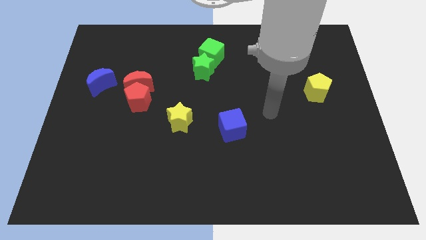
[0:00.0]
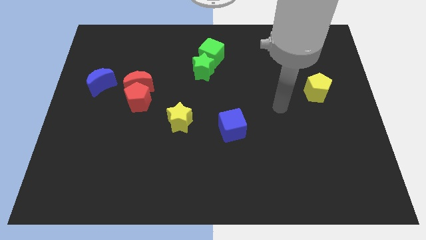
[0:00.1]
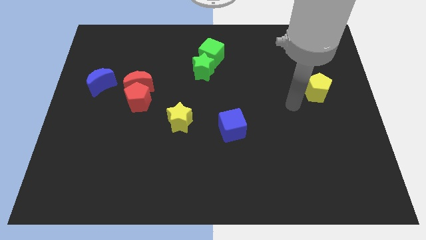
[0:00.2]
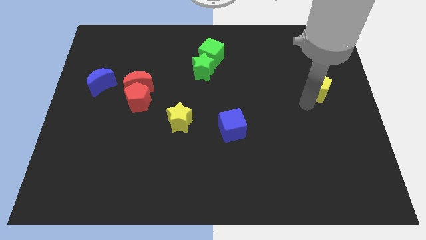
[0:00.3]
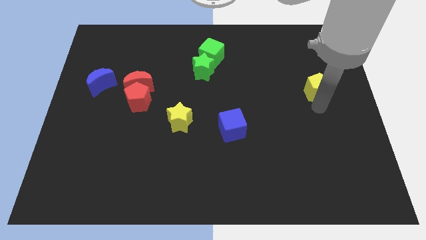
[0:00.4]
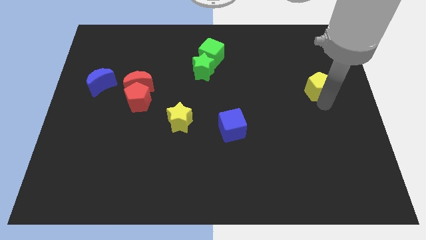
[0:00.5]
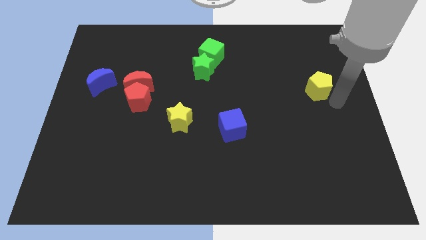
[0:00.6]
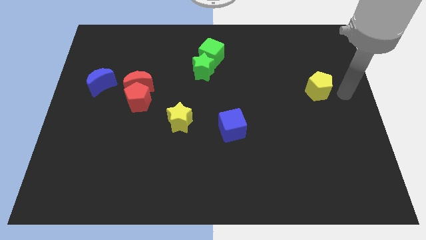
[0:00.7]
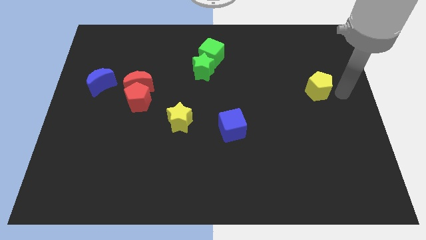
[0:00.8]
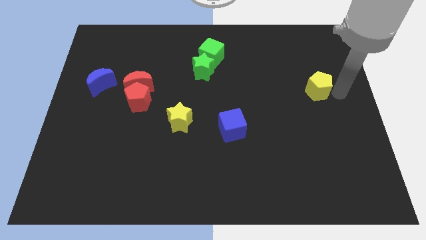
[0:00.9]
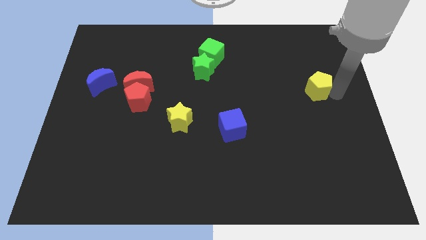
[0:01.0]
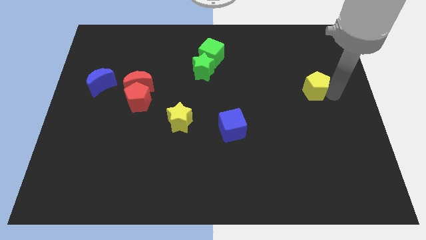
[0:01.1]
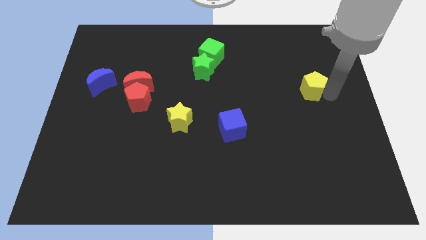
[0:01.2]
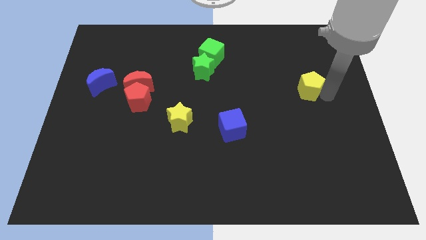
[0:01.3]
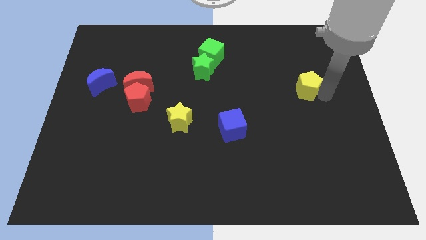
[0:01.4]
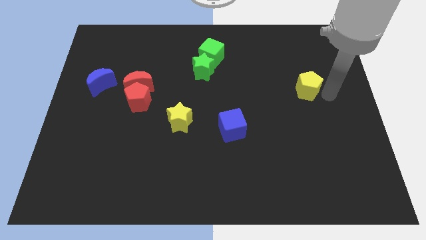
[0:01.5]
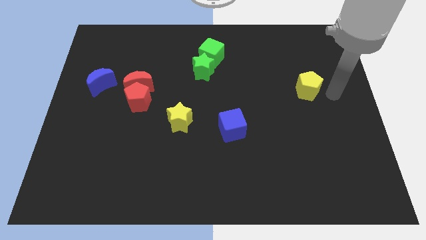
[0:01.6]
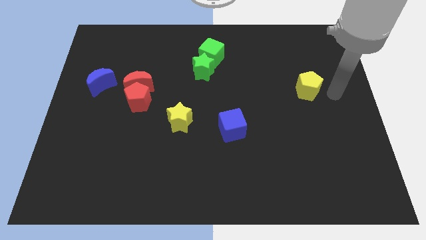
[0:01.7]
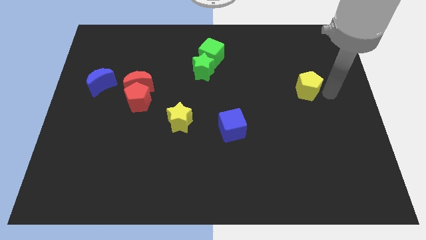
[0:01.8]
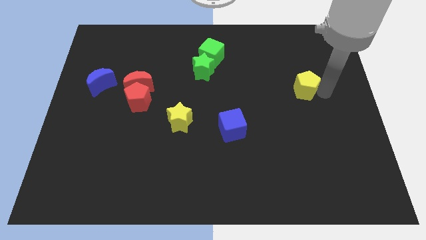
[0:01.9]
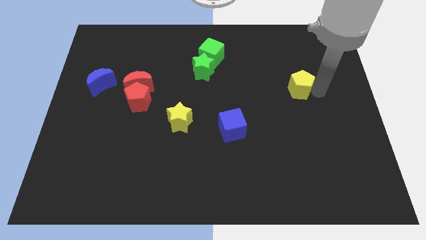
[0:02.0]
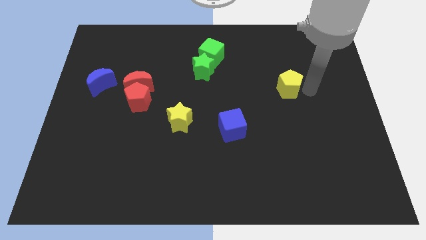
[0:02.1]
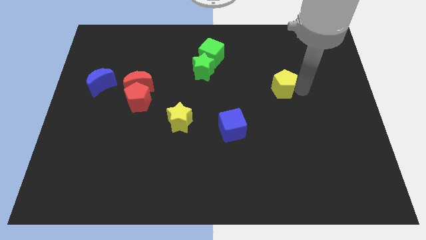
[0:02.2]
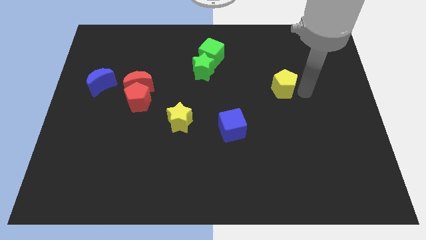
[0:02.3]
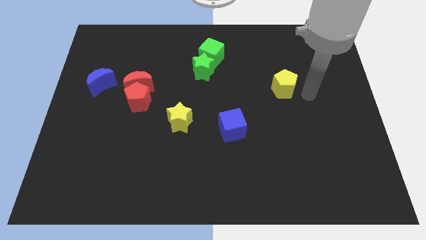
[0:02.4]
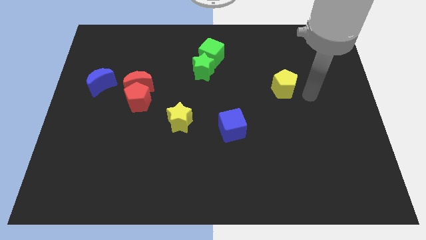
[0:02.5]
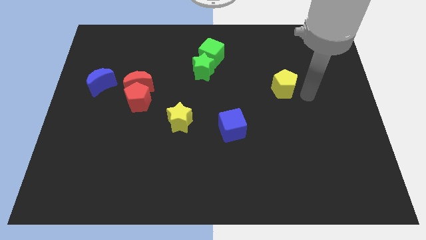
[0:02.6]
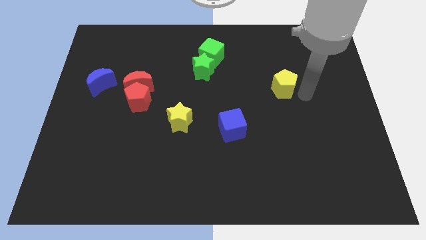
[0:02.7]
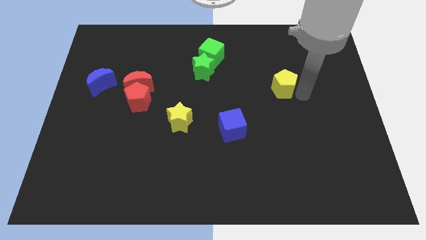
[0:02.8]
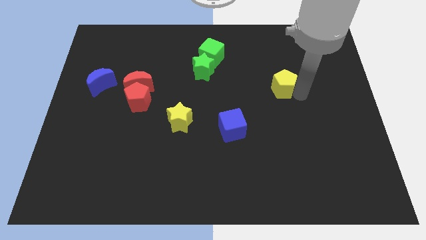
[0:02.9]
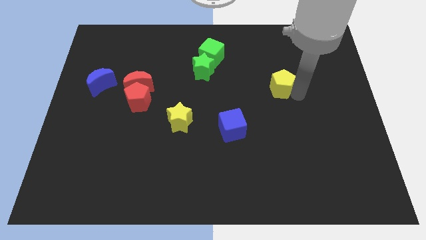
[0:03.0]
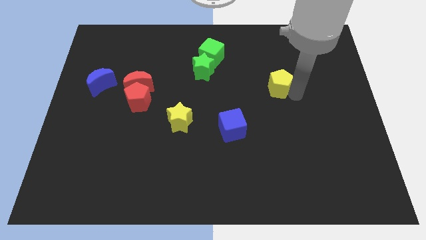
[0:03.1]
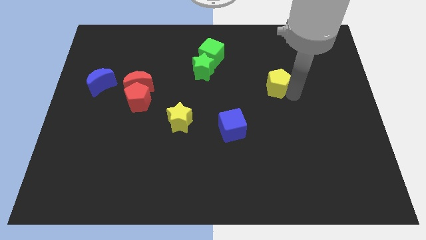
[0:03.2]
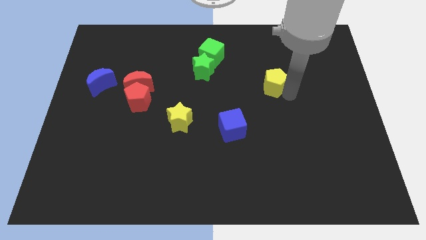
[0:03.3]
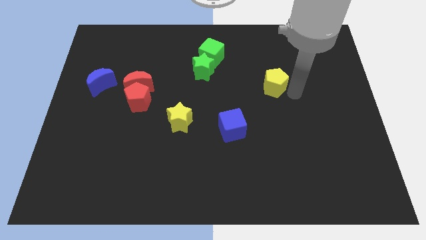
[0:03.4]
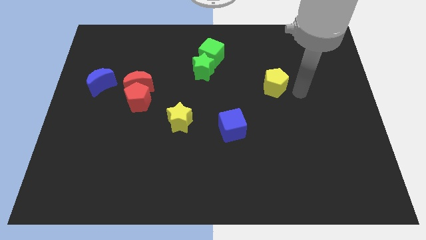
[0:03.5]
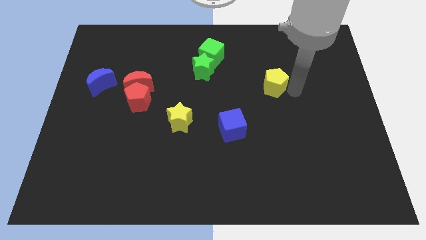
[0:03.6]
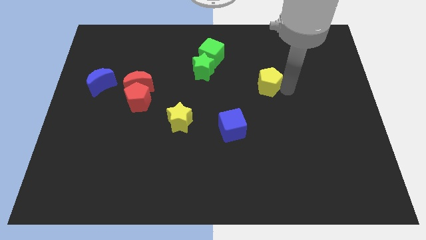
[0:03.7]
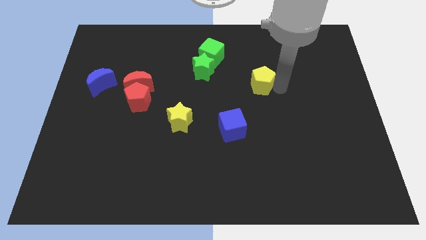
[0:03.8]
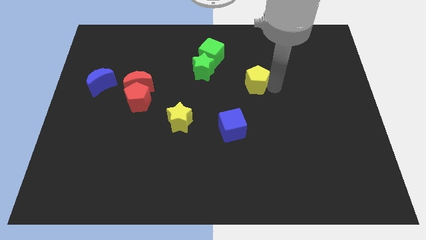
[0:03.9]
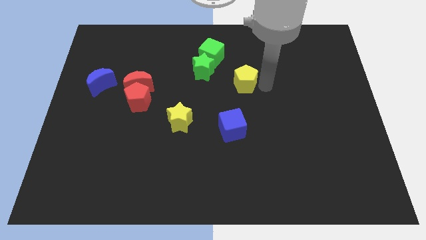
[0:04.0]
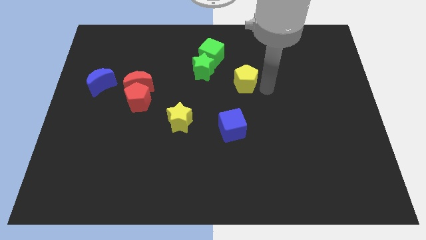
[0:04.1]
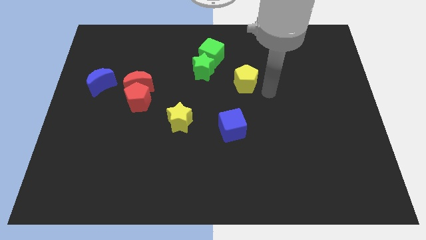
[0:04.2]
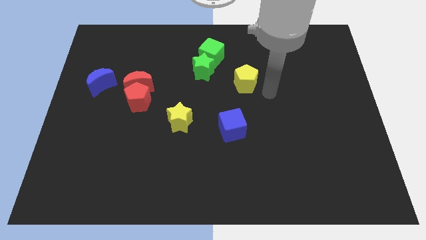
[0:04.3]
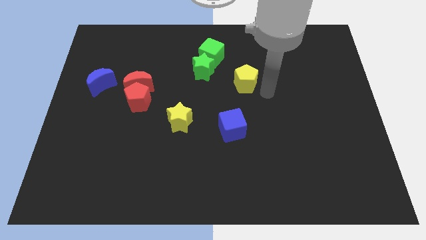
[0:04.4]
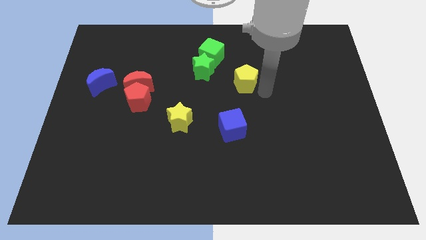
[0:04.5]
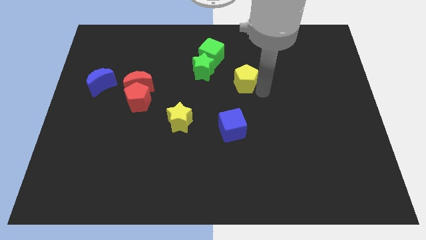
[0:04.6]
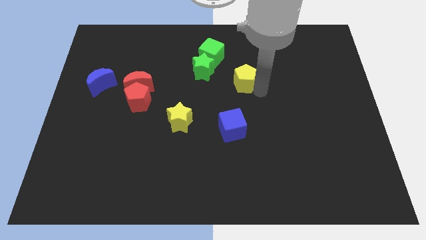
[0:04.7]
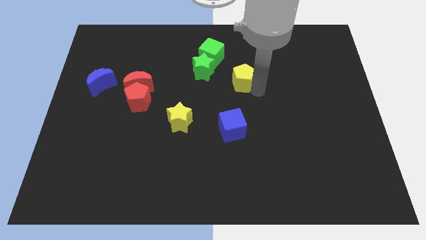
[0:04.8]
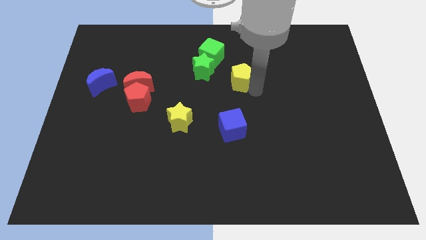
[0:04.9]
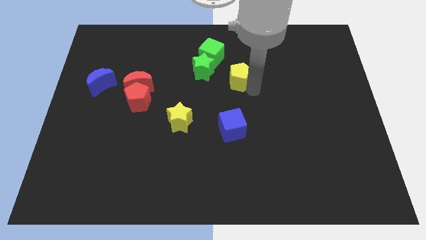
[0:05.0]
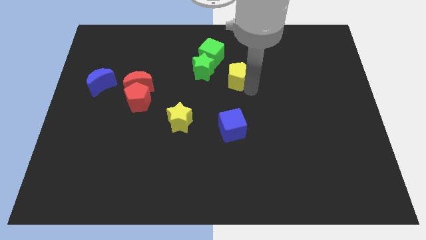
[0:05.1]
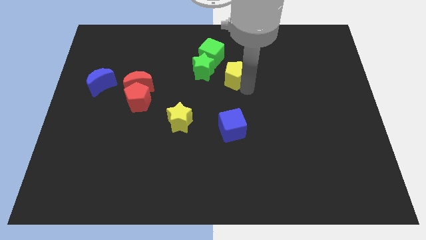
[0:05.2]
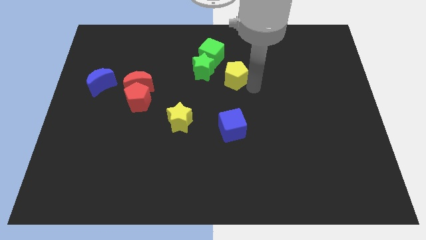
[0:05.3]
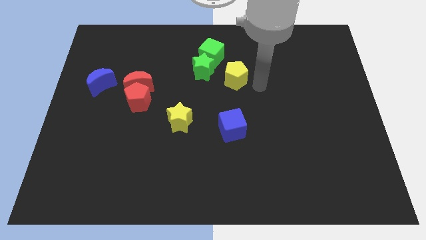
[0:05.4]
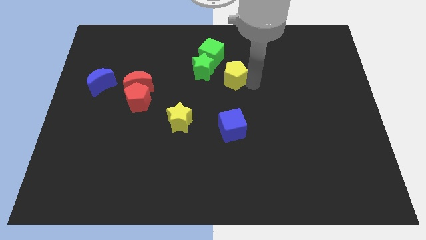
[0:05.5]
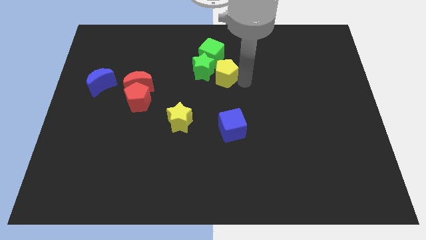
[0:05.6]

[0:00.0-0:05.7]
move the yellow pentagon towards the green star

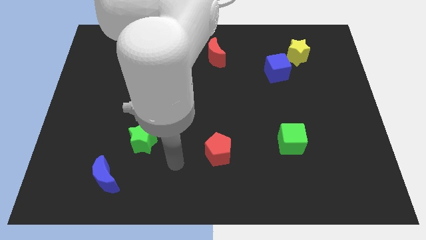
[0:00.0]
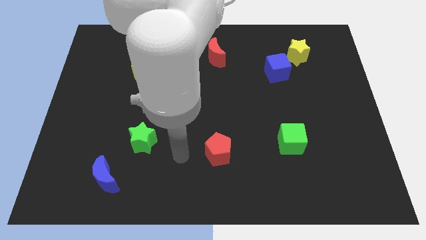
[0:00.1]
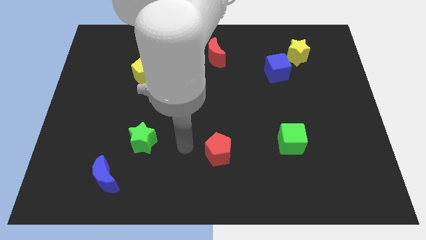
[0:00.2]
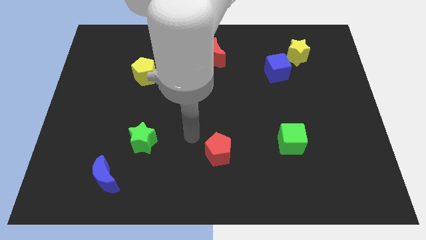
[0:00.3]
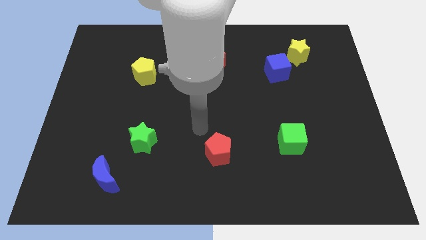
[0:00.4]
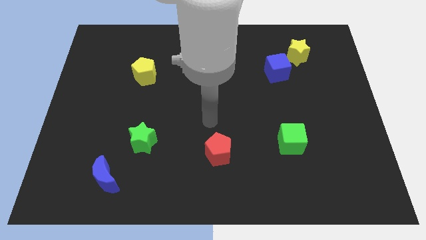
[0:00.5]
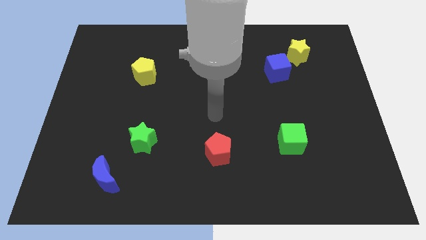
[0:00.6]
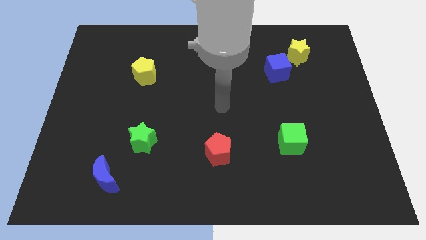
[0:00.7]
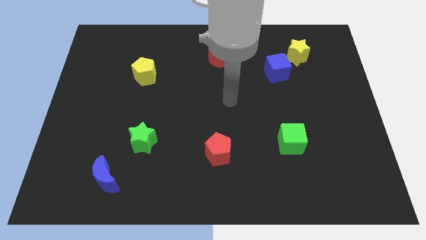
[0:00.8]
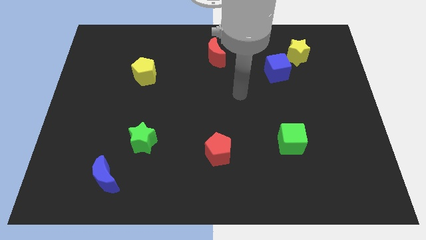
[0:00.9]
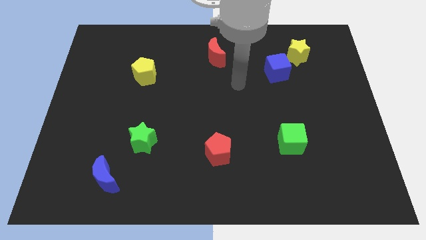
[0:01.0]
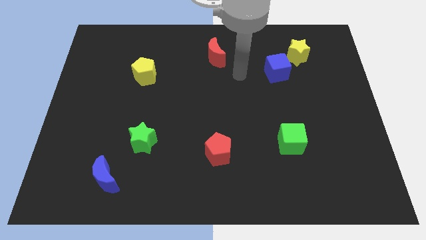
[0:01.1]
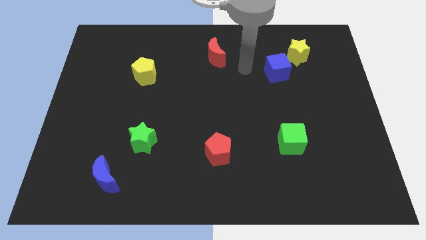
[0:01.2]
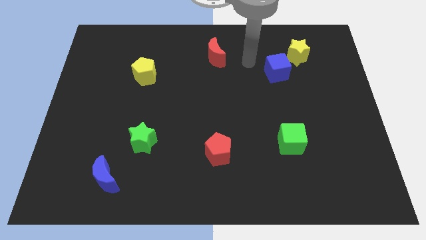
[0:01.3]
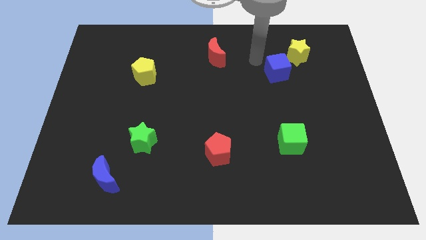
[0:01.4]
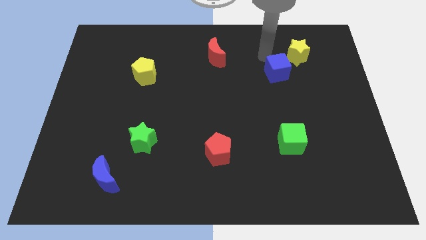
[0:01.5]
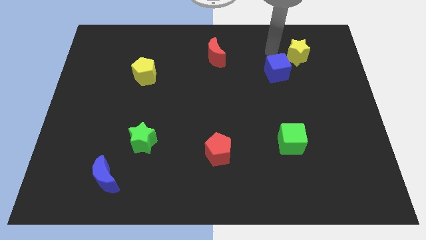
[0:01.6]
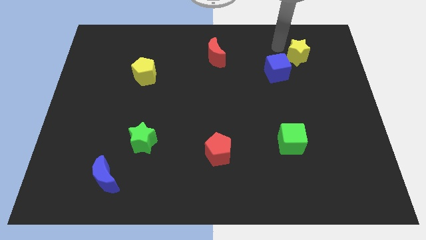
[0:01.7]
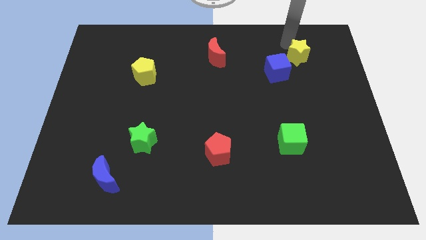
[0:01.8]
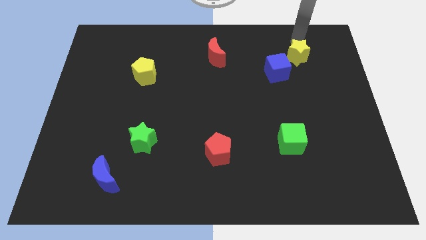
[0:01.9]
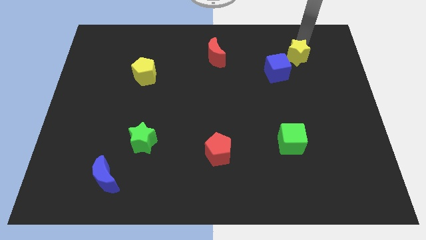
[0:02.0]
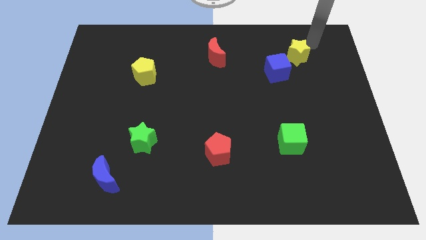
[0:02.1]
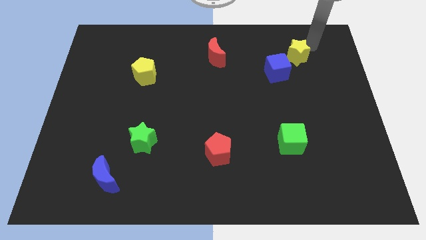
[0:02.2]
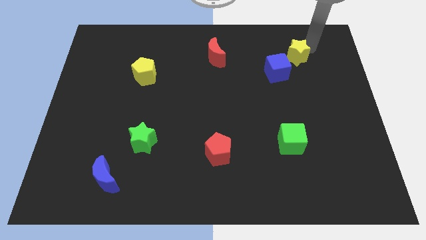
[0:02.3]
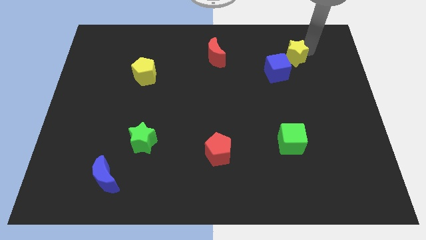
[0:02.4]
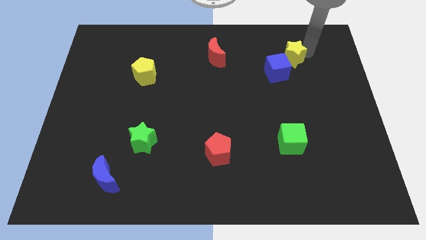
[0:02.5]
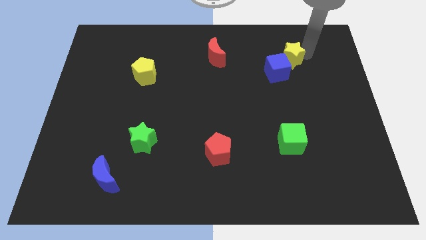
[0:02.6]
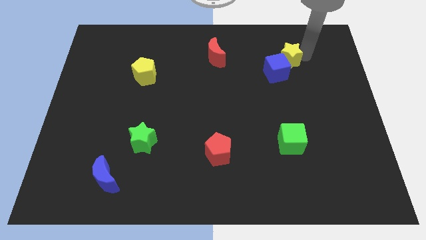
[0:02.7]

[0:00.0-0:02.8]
put the yellow star to the blue cube
